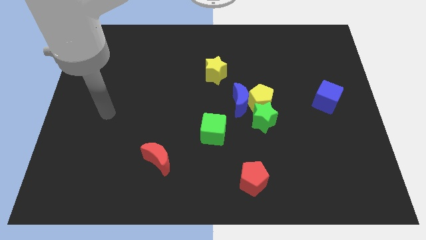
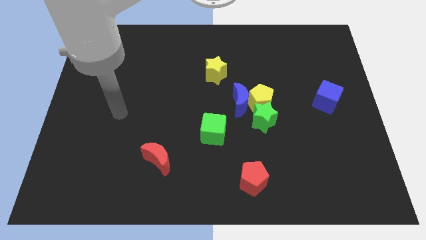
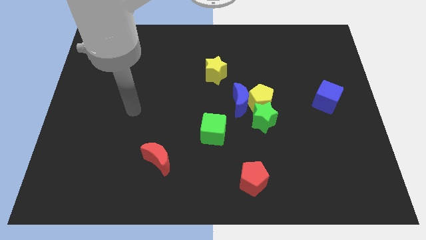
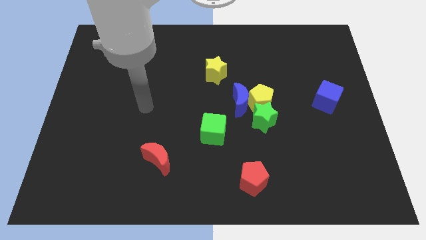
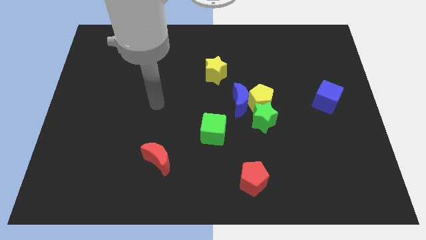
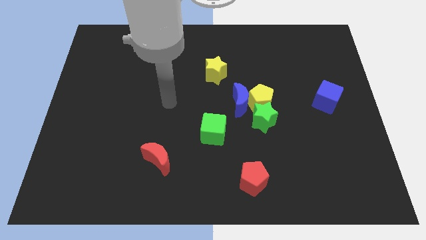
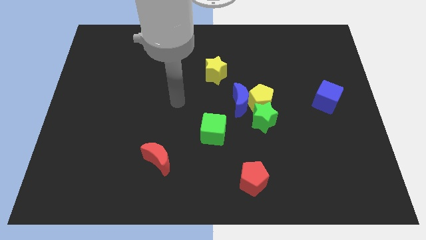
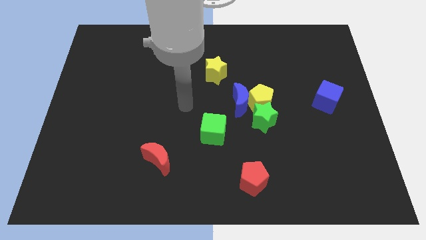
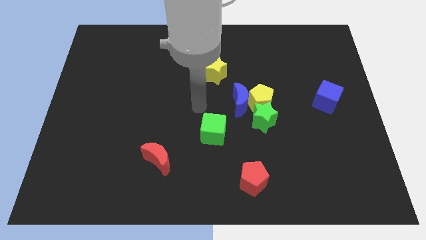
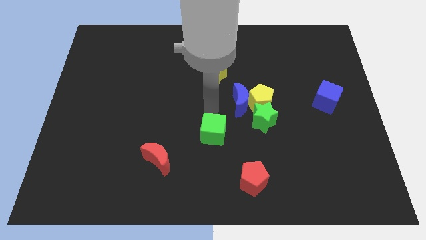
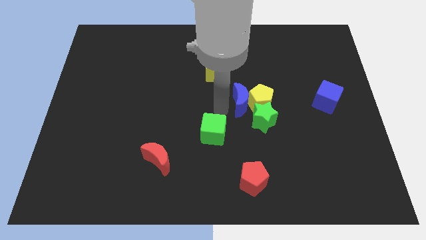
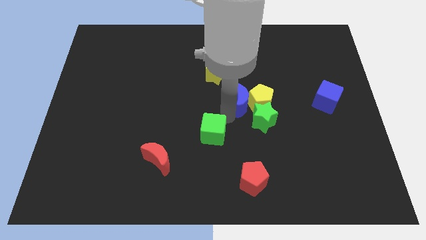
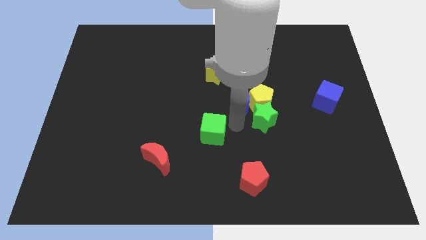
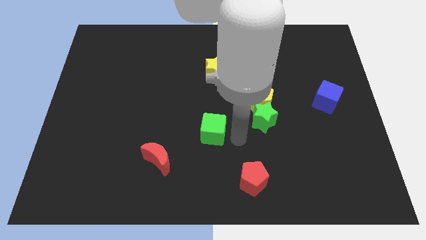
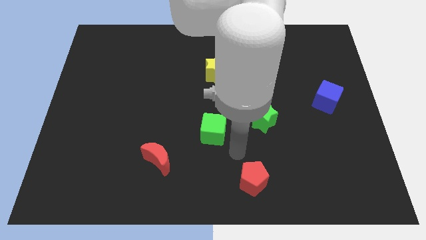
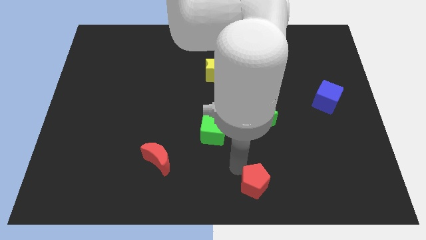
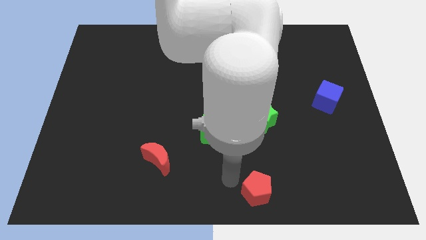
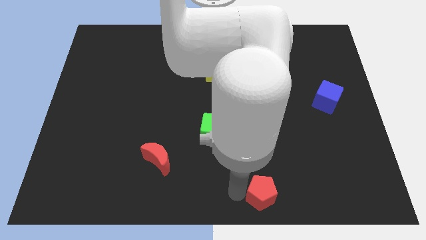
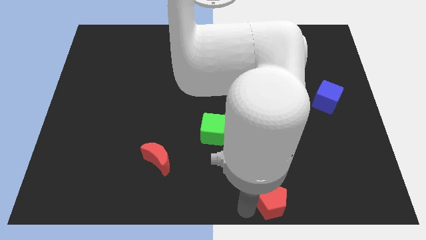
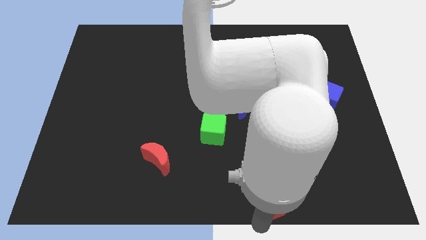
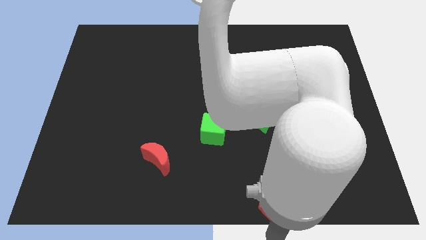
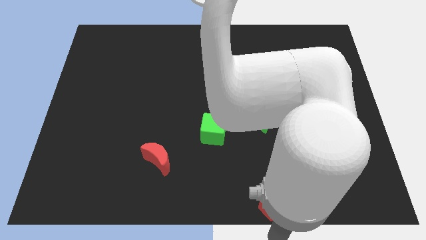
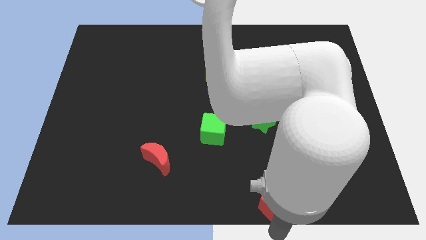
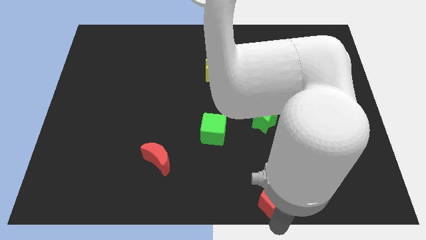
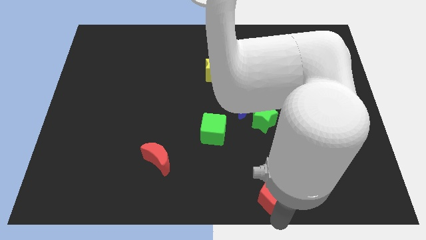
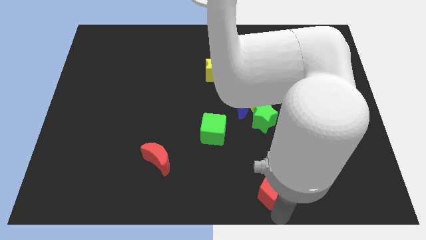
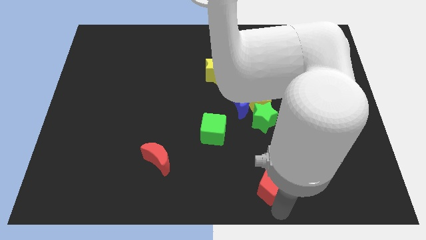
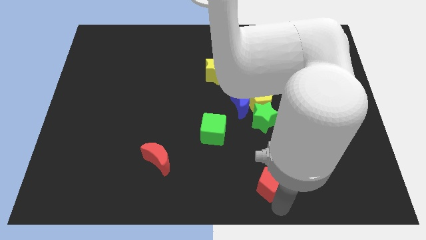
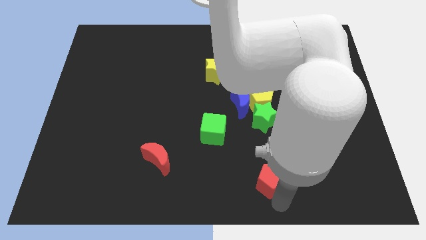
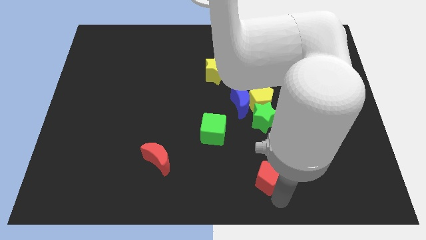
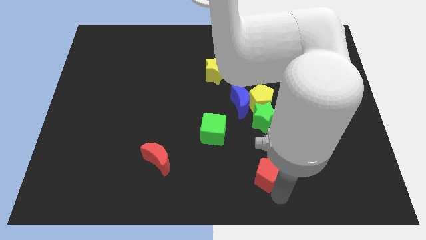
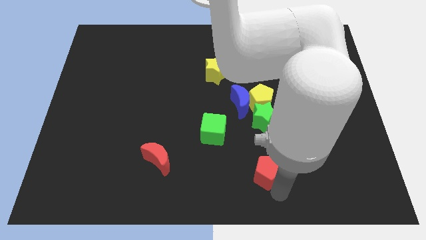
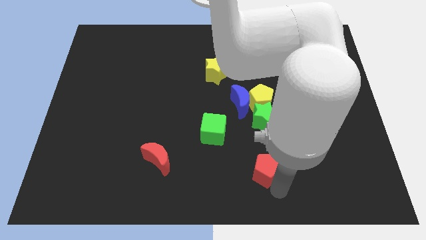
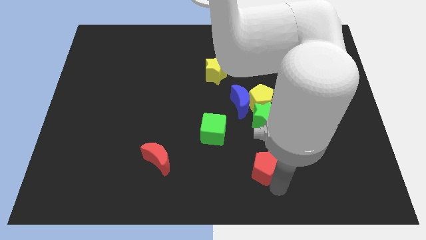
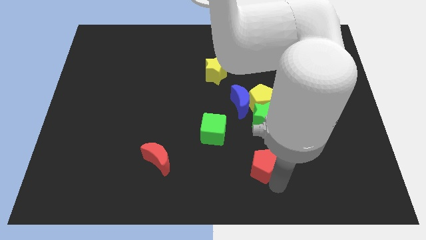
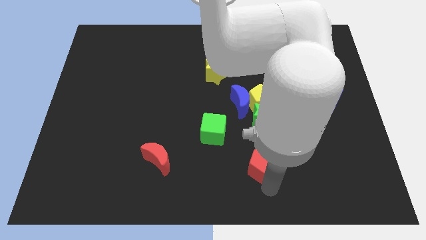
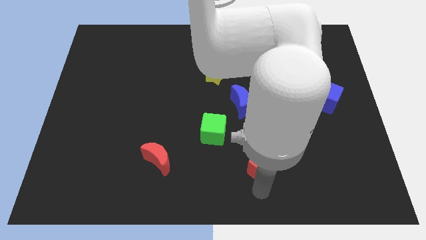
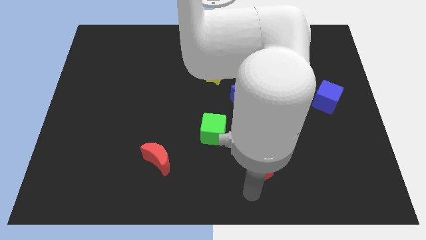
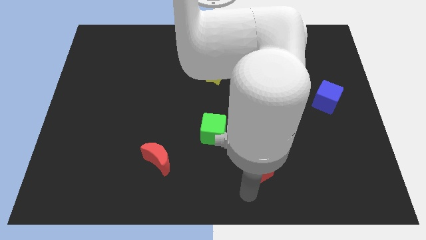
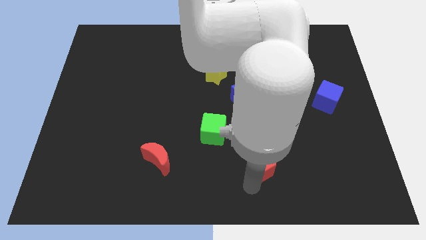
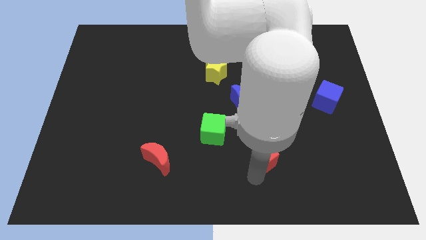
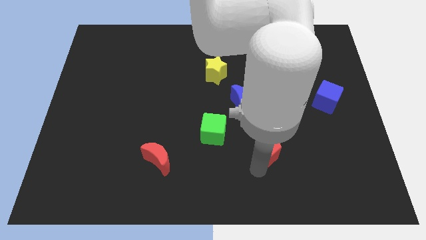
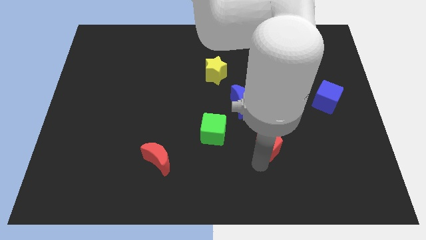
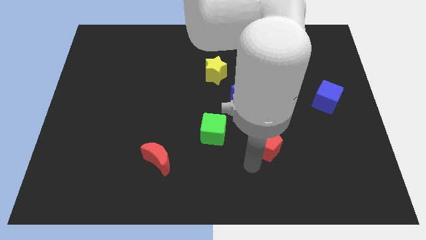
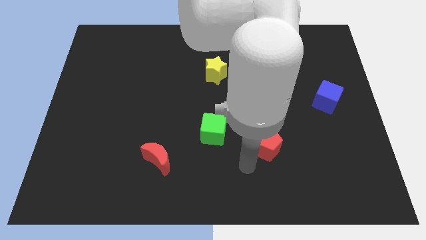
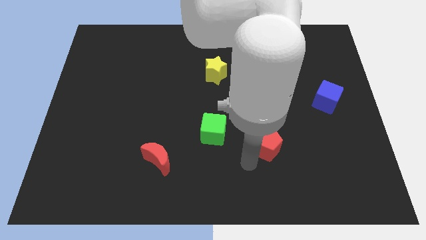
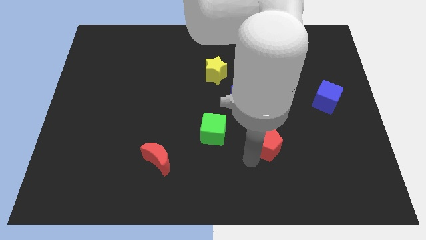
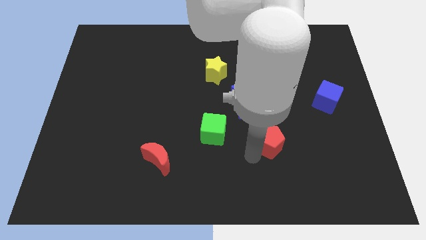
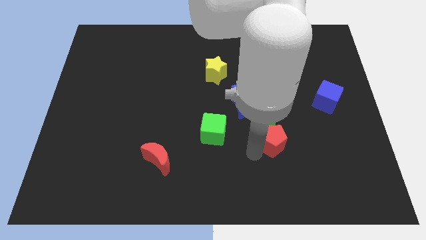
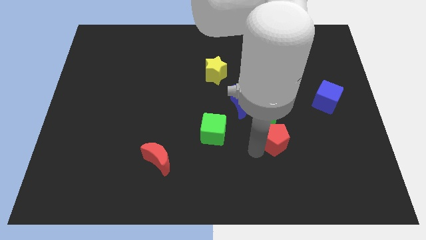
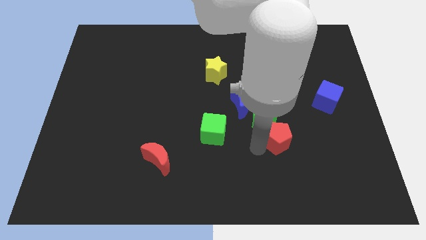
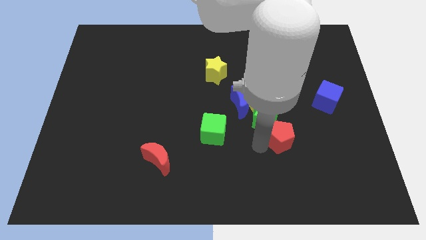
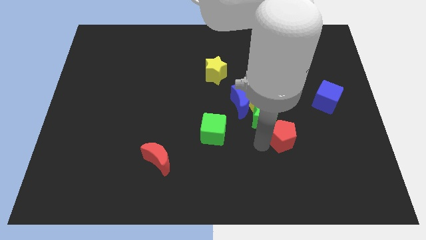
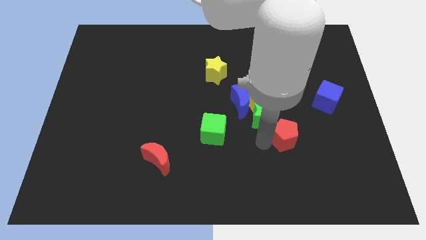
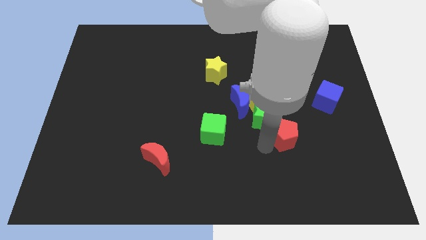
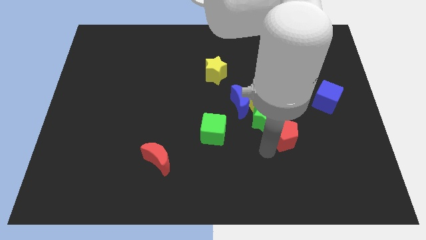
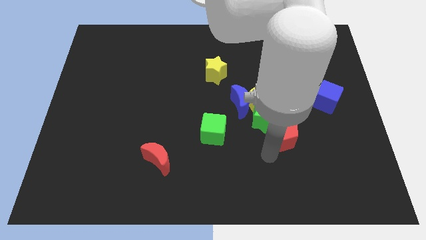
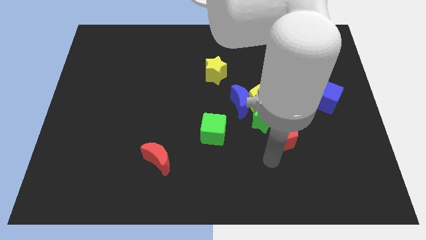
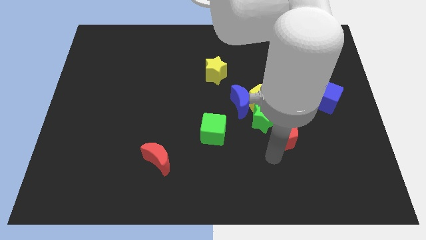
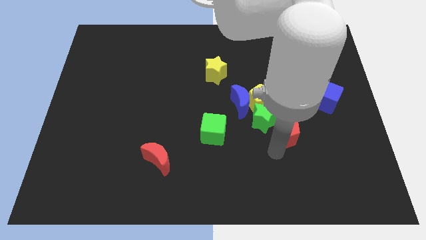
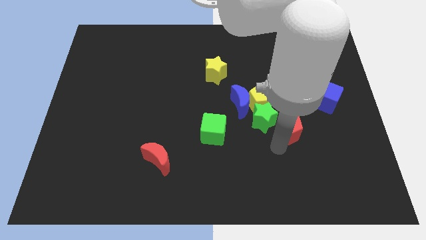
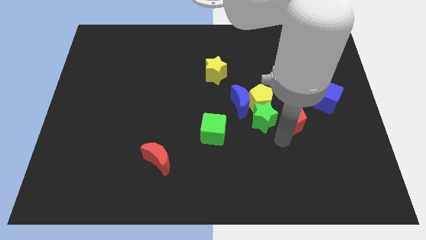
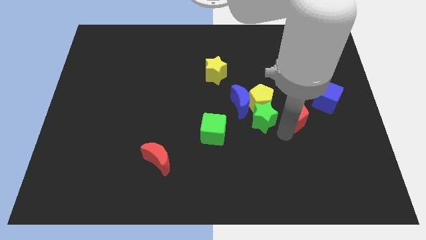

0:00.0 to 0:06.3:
move the red pentagon just right of the yellow pentagon

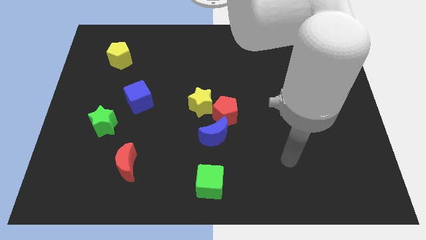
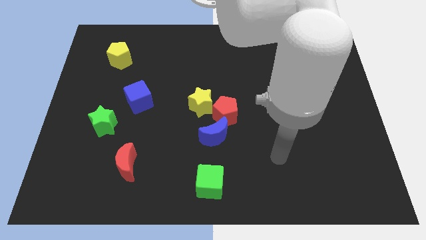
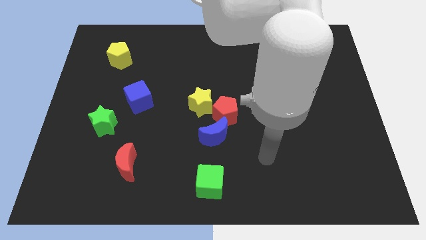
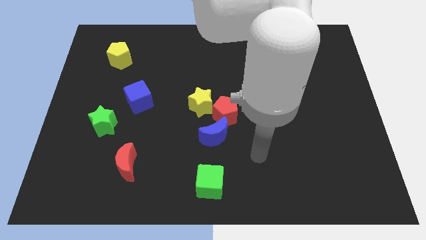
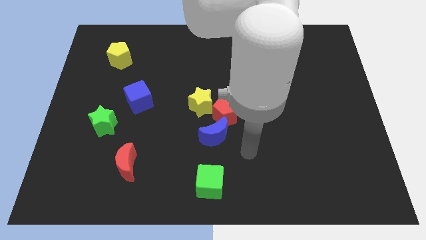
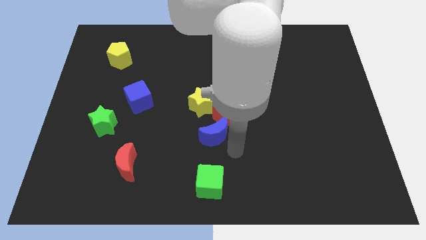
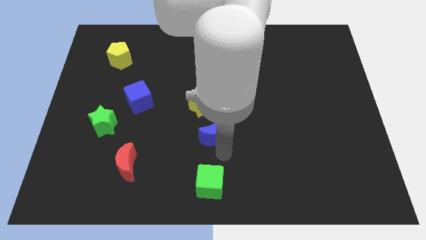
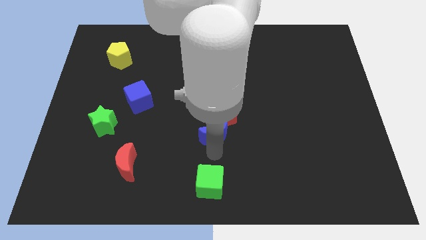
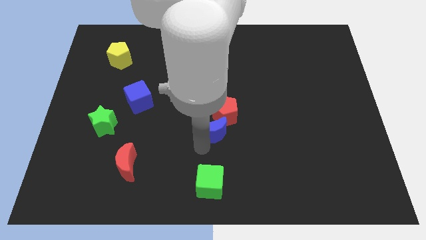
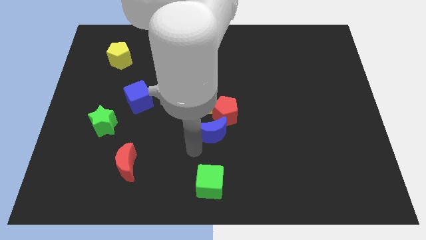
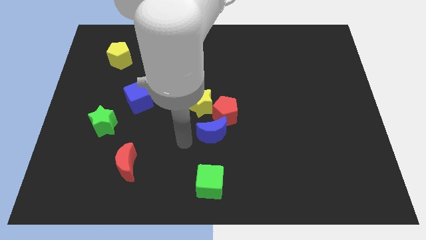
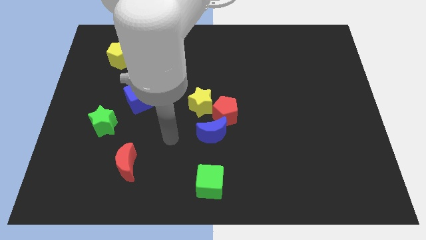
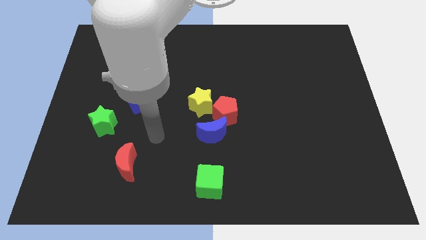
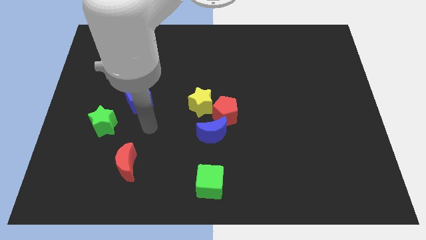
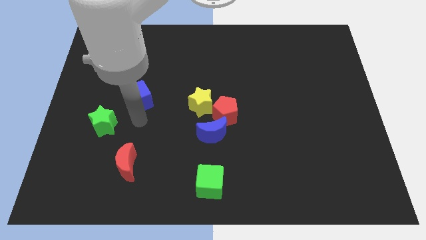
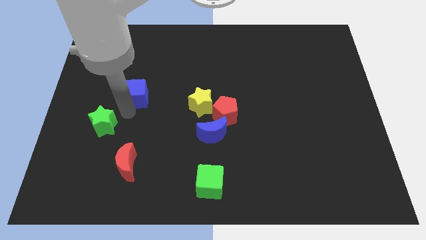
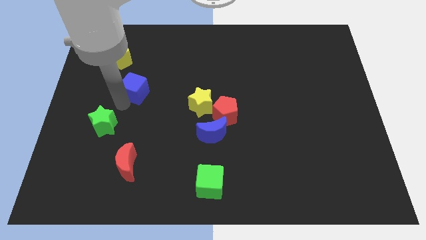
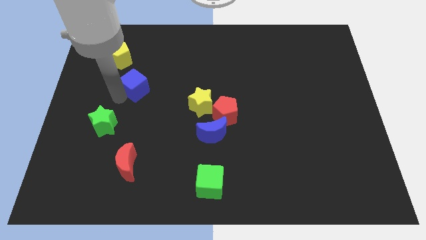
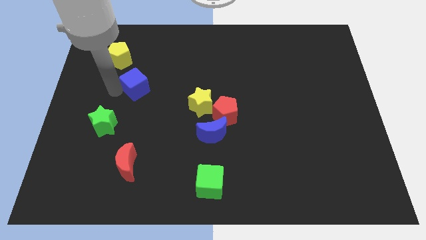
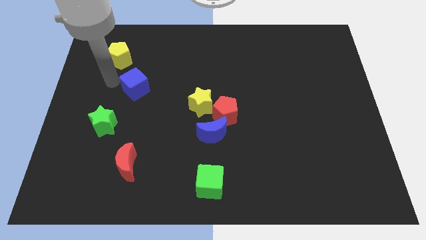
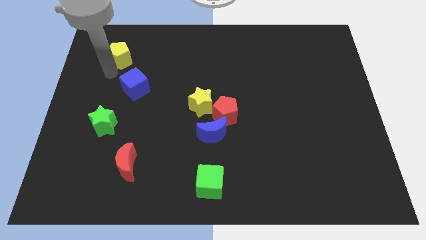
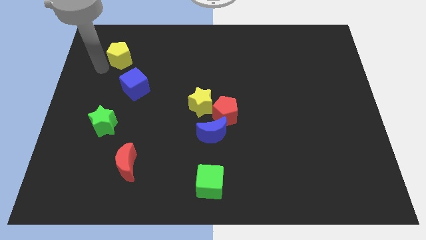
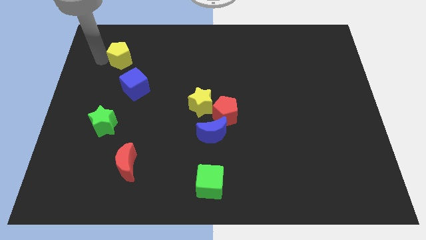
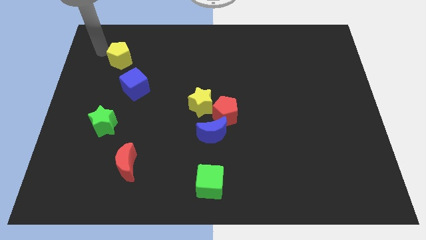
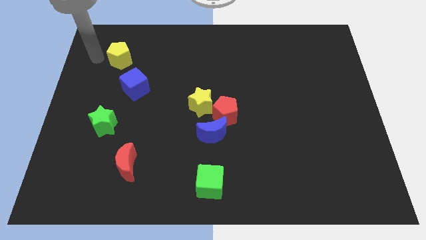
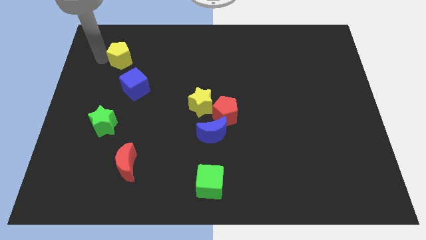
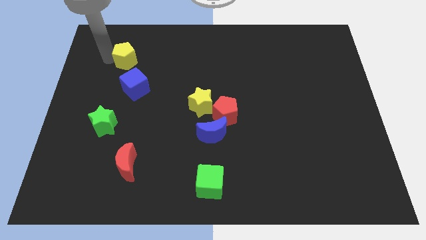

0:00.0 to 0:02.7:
put the yellow pentagon to the top side of the blue cube
